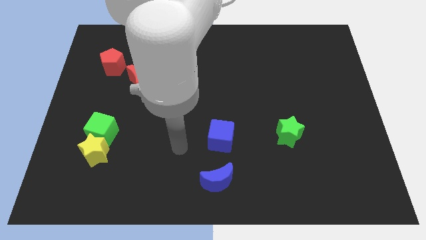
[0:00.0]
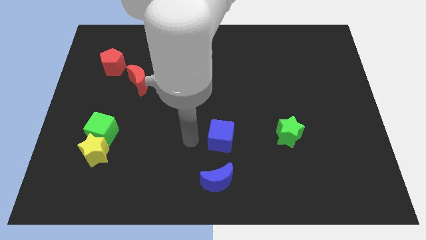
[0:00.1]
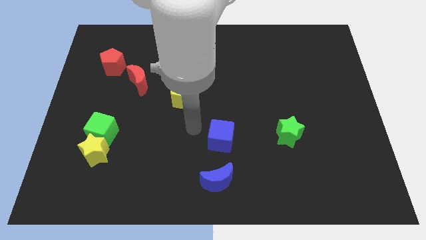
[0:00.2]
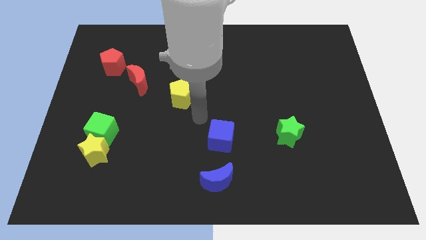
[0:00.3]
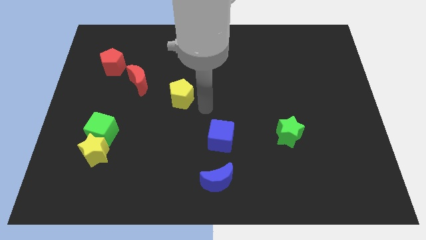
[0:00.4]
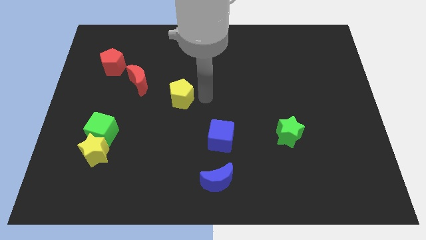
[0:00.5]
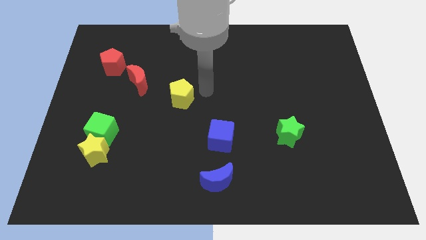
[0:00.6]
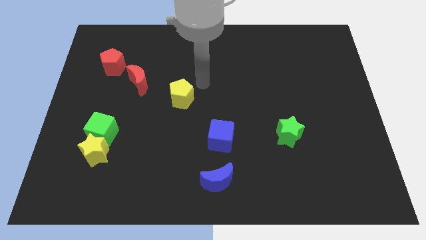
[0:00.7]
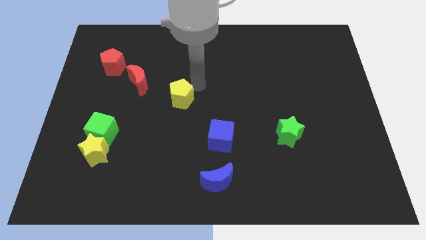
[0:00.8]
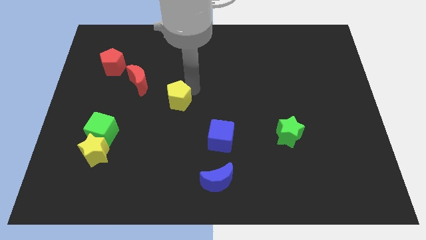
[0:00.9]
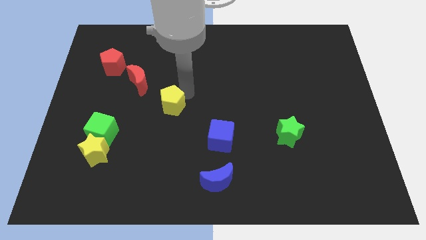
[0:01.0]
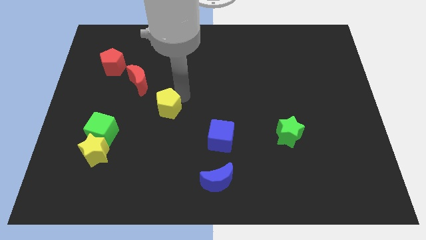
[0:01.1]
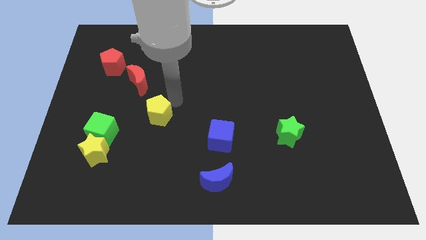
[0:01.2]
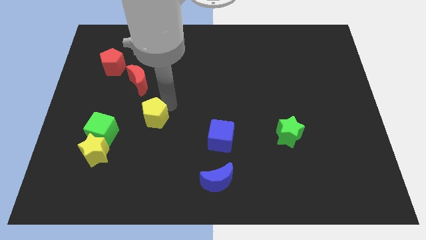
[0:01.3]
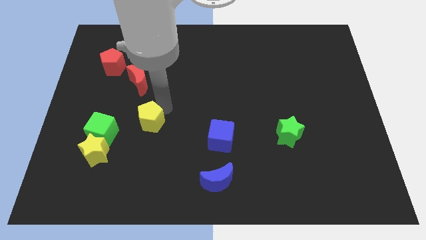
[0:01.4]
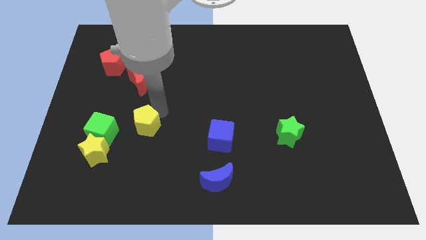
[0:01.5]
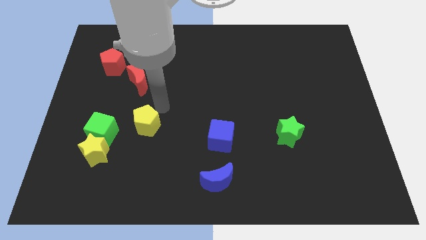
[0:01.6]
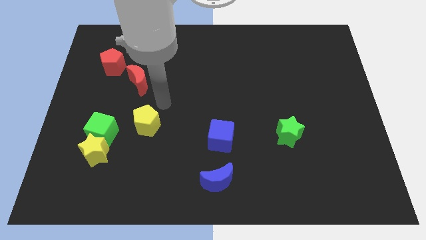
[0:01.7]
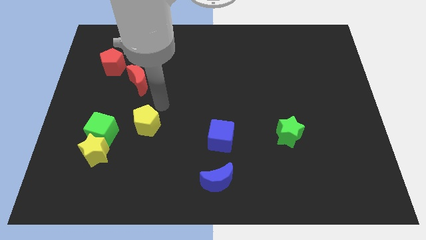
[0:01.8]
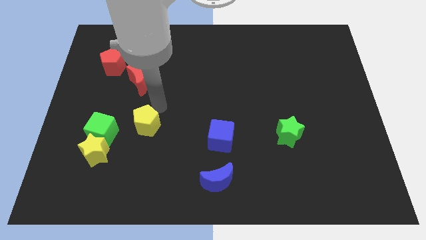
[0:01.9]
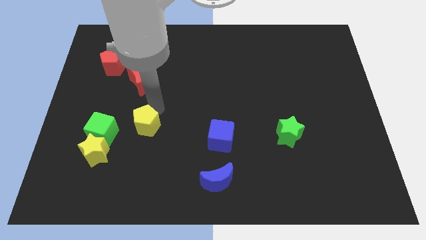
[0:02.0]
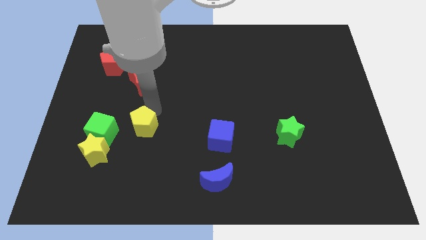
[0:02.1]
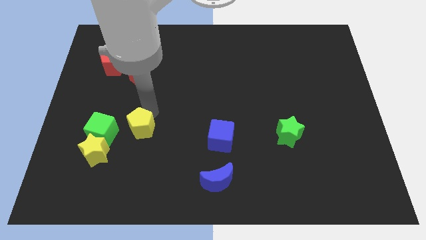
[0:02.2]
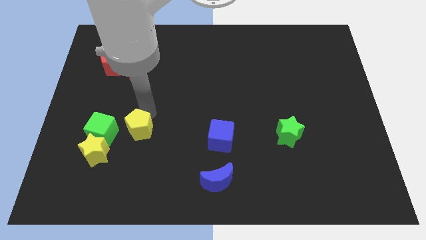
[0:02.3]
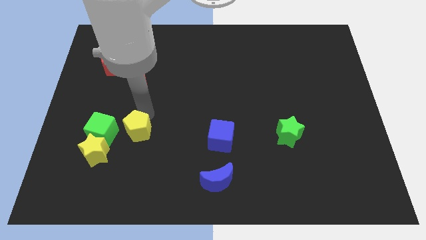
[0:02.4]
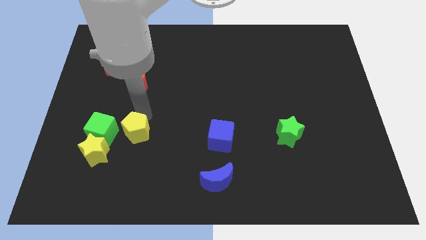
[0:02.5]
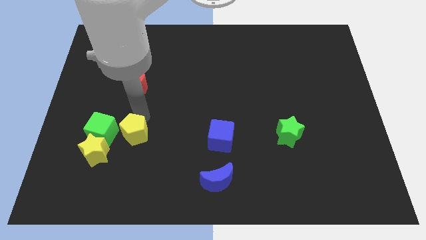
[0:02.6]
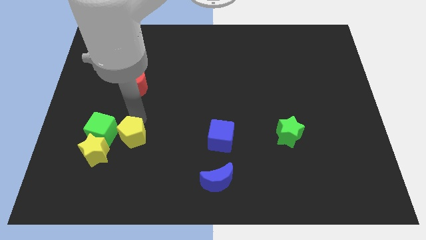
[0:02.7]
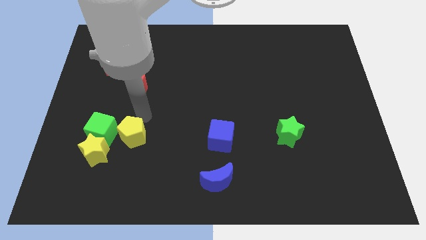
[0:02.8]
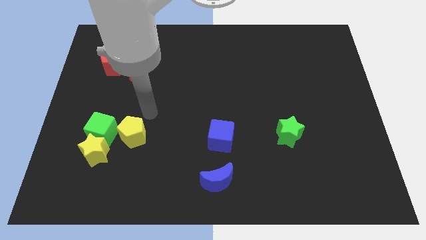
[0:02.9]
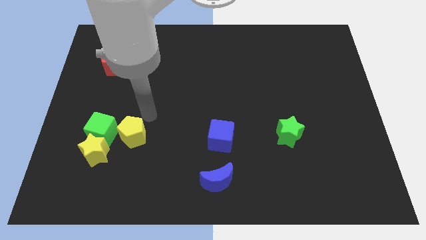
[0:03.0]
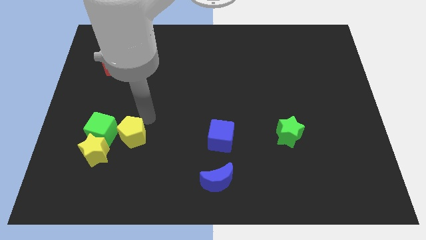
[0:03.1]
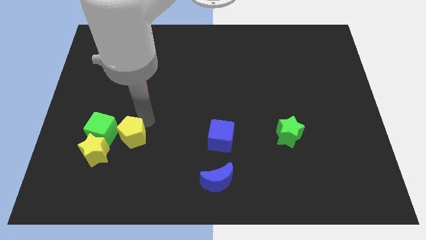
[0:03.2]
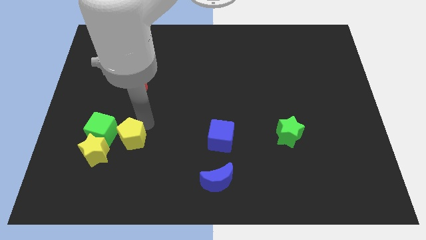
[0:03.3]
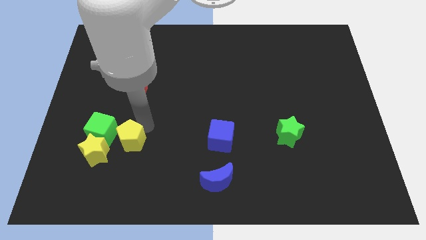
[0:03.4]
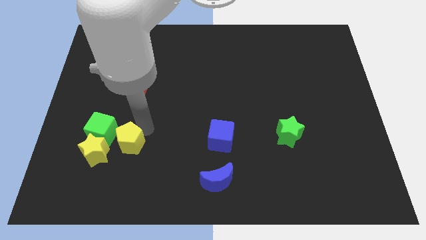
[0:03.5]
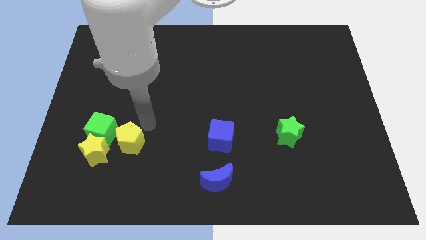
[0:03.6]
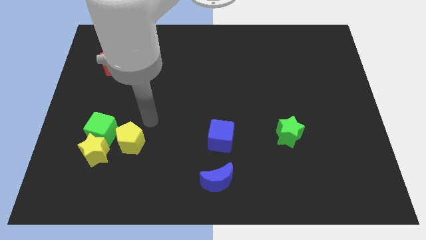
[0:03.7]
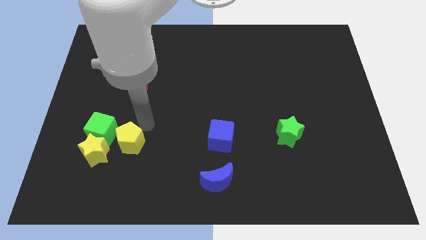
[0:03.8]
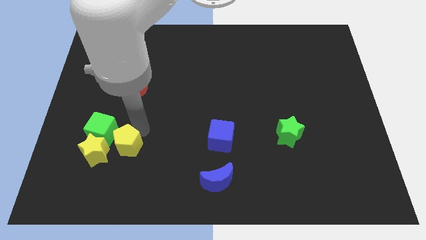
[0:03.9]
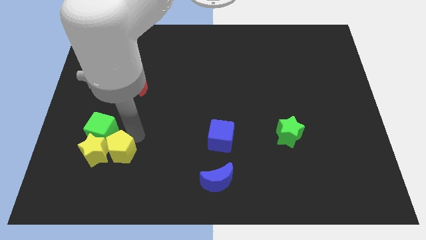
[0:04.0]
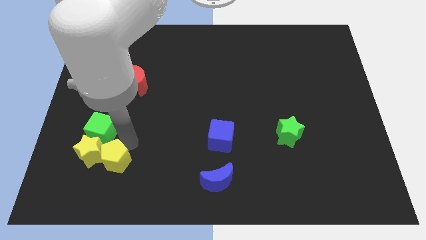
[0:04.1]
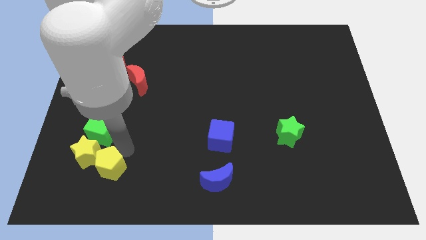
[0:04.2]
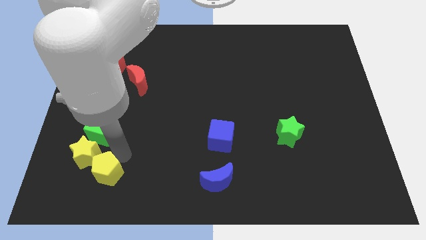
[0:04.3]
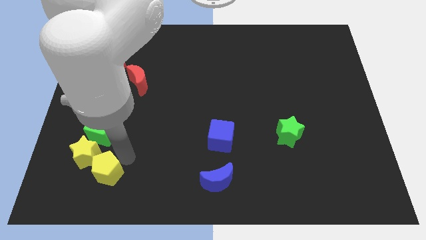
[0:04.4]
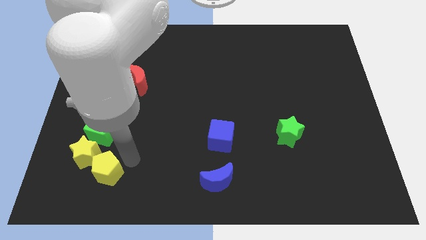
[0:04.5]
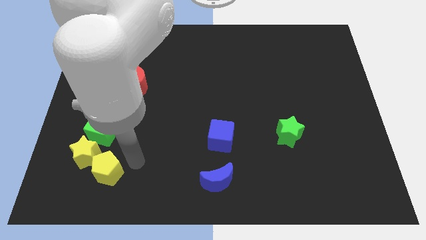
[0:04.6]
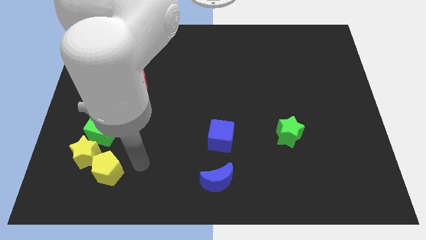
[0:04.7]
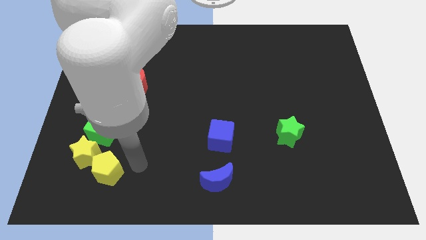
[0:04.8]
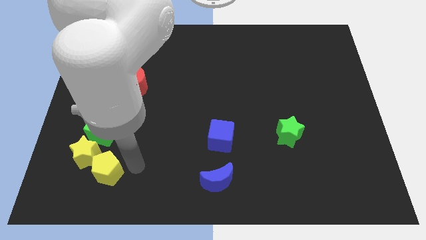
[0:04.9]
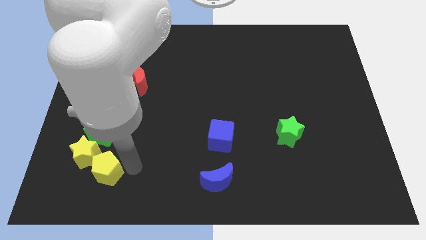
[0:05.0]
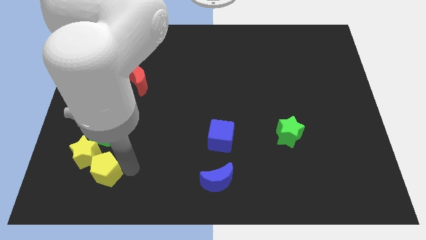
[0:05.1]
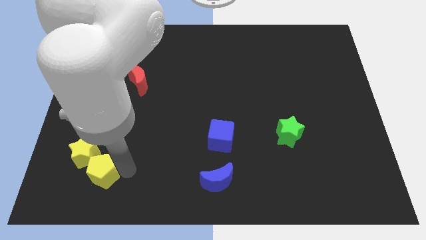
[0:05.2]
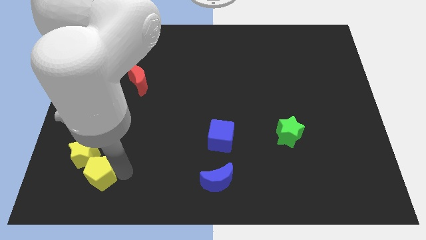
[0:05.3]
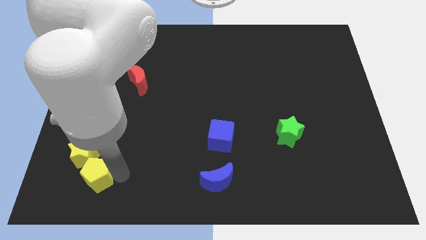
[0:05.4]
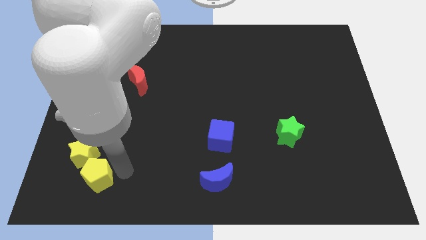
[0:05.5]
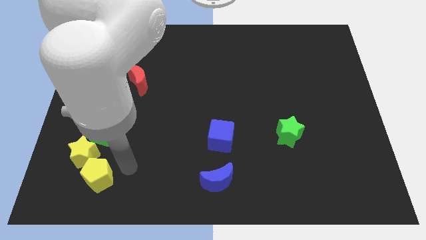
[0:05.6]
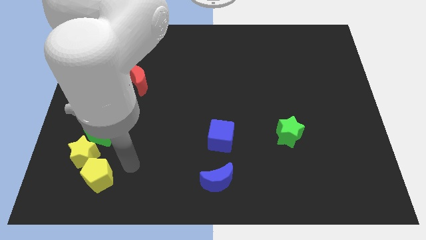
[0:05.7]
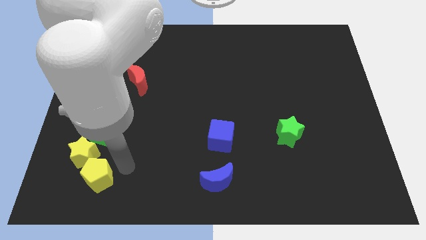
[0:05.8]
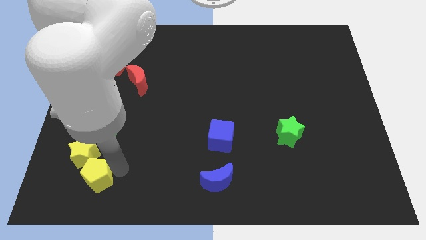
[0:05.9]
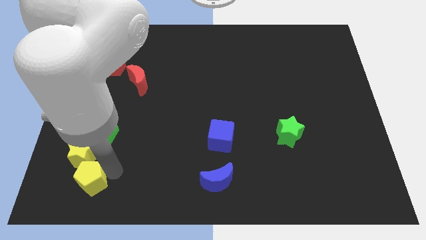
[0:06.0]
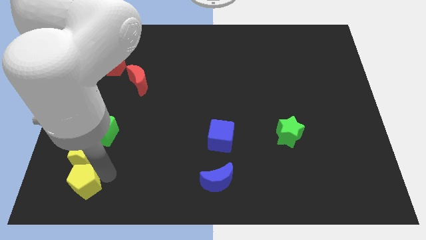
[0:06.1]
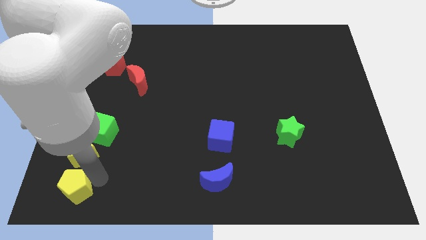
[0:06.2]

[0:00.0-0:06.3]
push the yellow pentagon to the bottom left

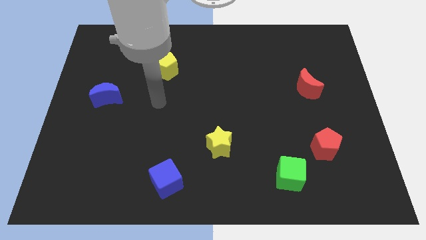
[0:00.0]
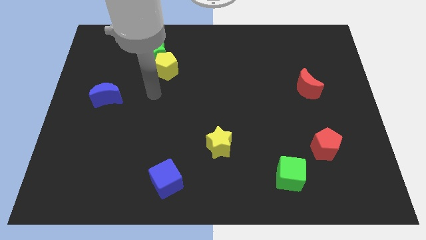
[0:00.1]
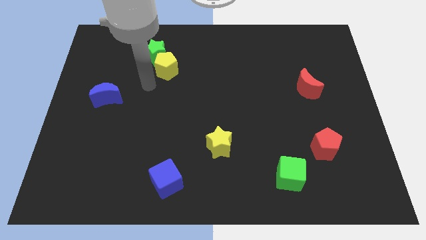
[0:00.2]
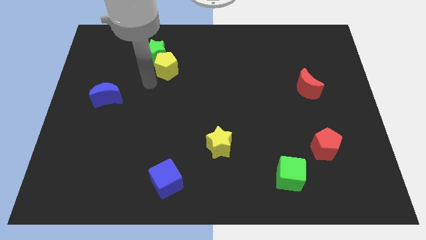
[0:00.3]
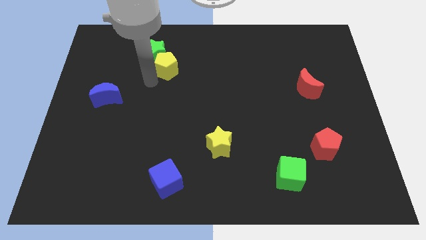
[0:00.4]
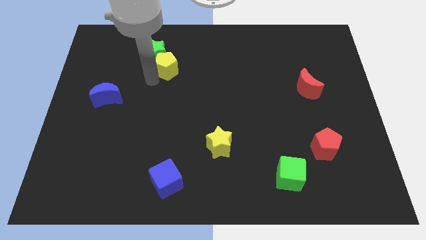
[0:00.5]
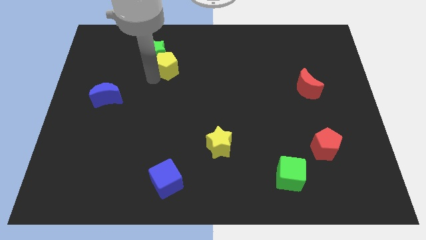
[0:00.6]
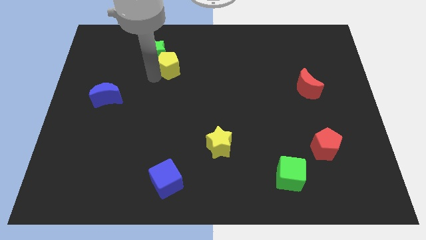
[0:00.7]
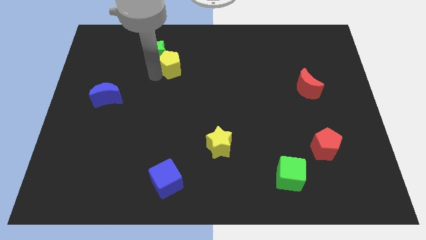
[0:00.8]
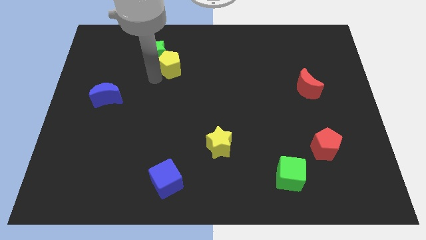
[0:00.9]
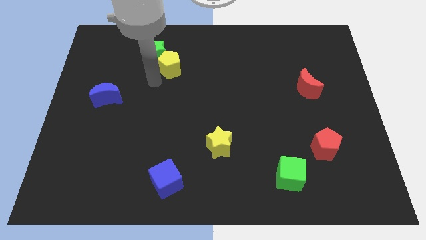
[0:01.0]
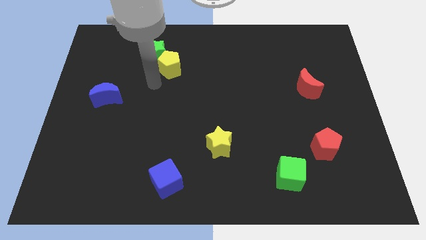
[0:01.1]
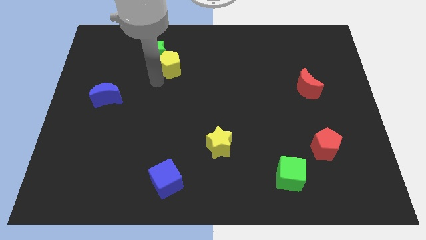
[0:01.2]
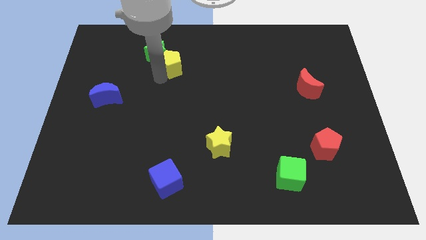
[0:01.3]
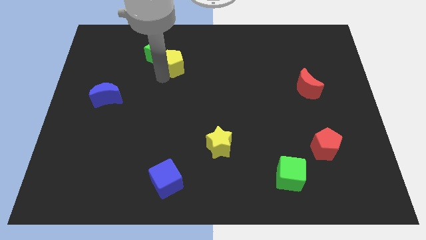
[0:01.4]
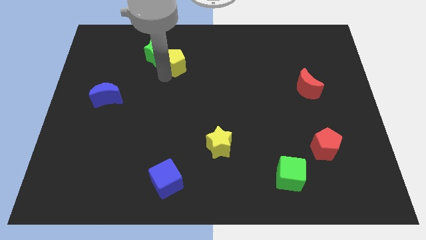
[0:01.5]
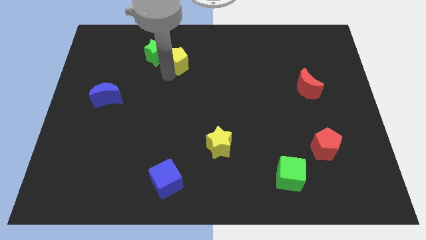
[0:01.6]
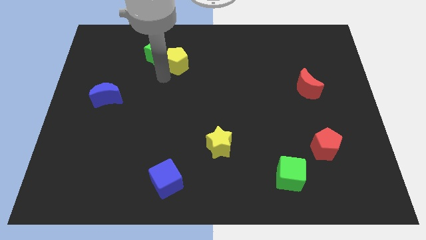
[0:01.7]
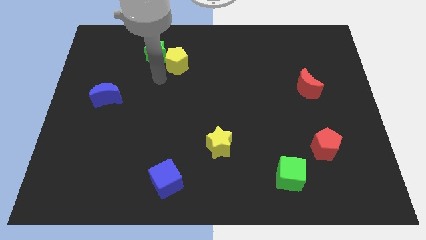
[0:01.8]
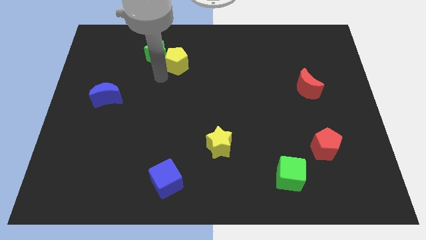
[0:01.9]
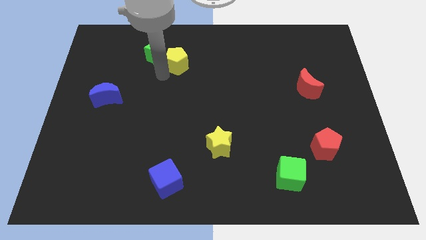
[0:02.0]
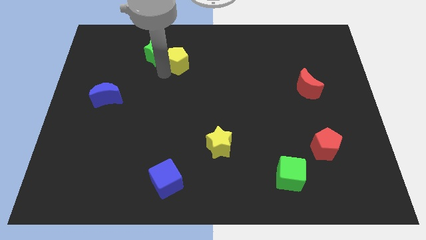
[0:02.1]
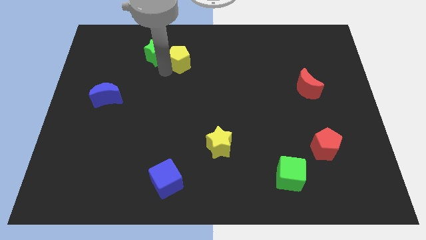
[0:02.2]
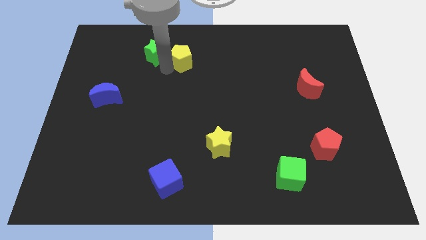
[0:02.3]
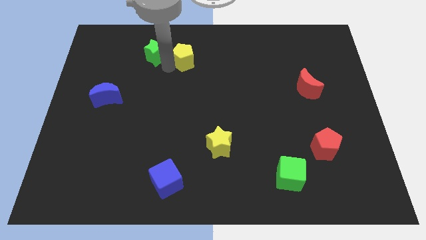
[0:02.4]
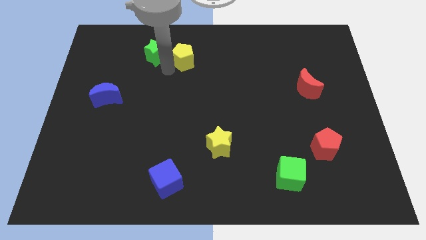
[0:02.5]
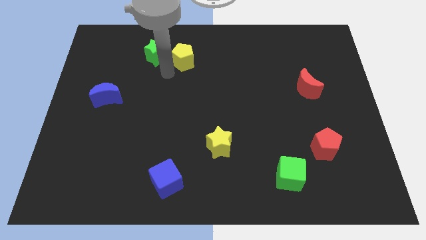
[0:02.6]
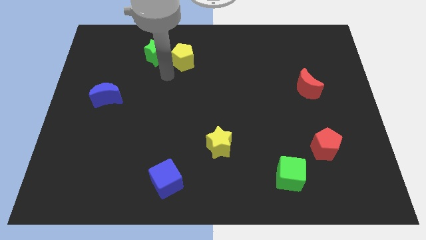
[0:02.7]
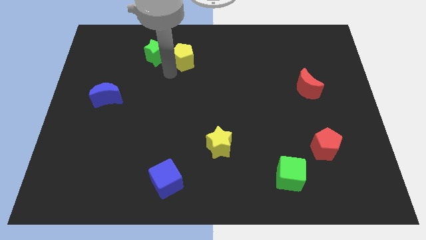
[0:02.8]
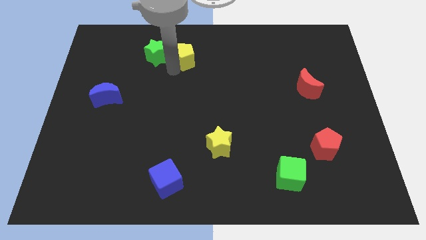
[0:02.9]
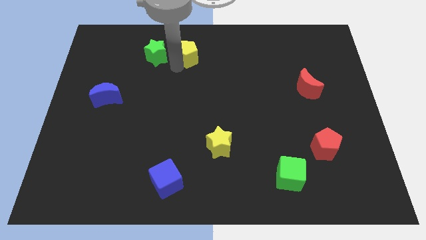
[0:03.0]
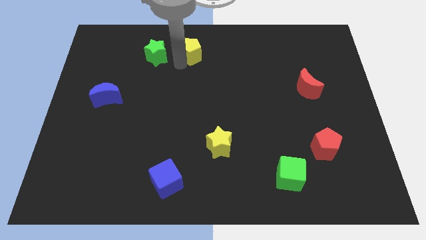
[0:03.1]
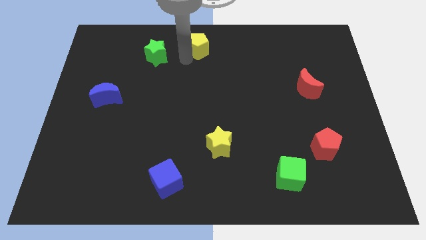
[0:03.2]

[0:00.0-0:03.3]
push the yellow pentagon to the top
